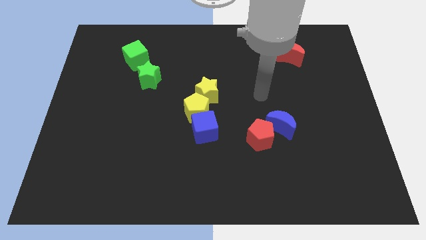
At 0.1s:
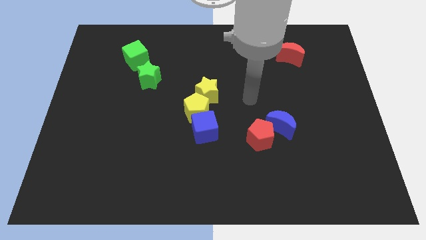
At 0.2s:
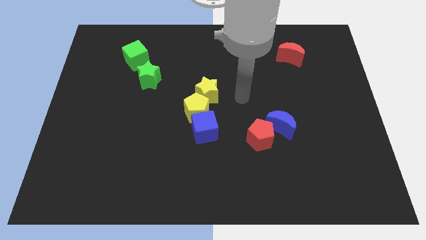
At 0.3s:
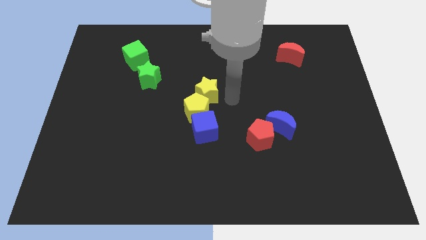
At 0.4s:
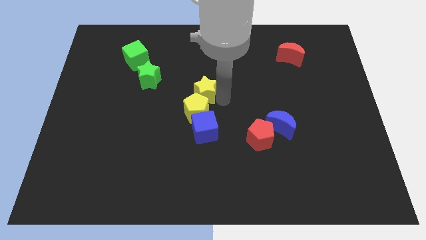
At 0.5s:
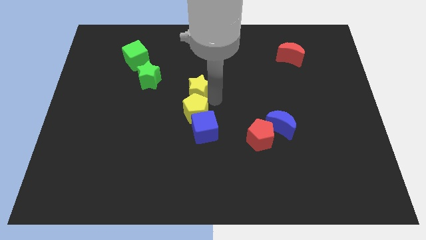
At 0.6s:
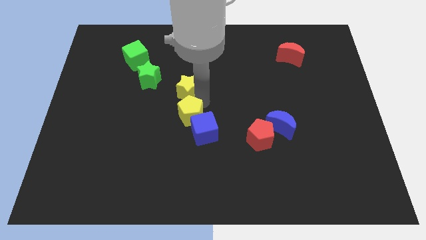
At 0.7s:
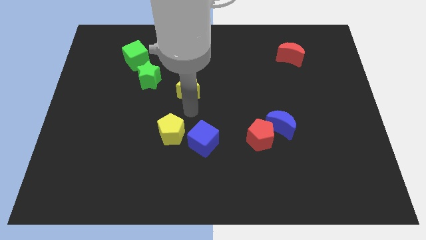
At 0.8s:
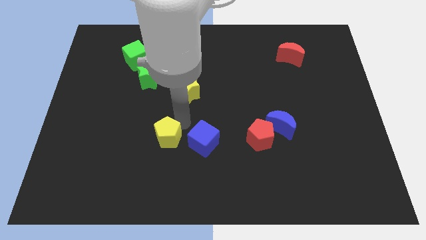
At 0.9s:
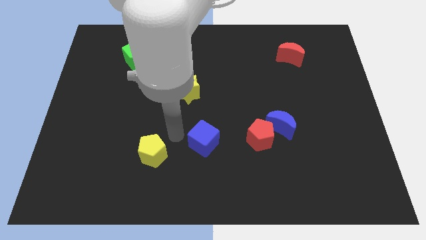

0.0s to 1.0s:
move the blue cube away from the yellow pentagon

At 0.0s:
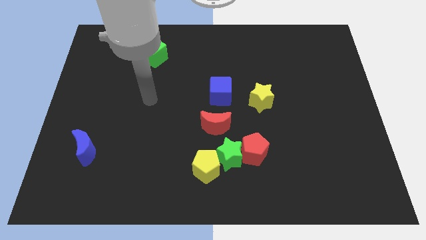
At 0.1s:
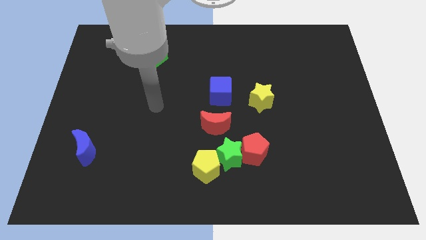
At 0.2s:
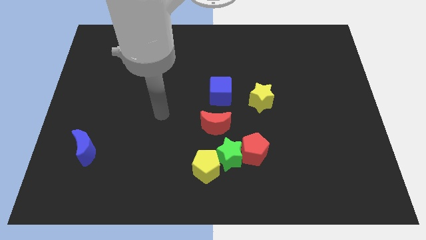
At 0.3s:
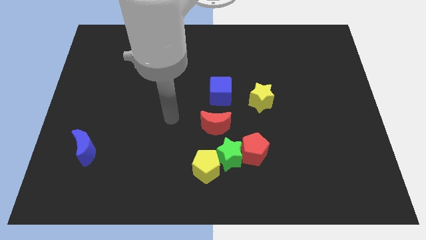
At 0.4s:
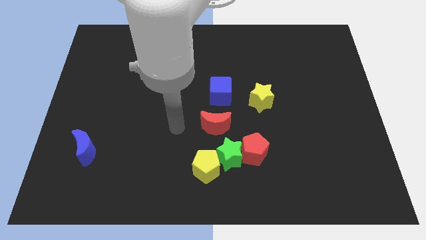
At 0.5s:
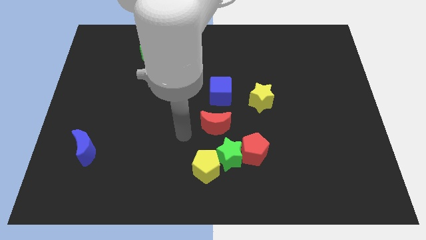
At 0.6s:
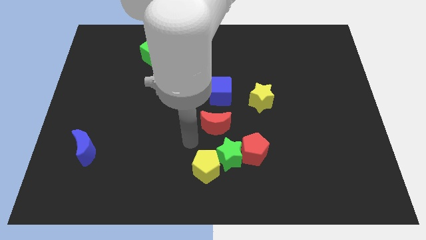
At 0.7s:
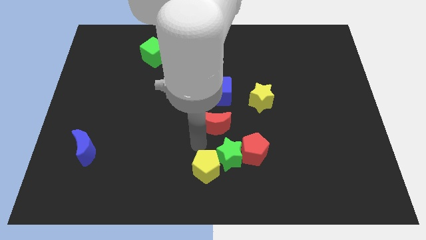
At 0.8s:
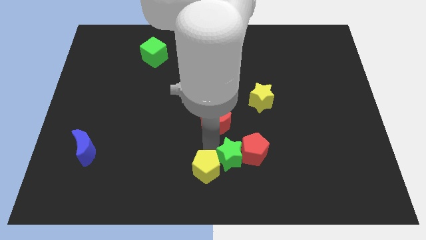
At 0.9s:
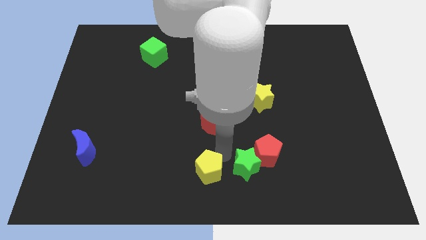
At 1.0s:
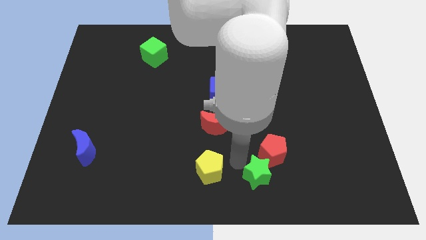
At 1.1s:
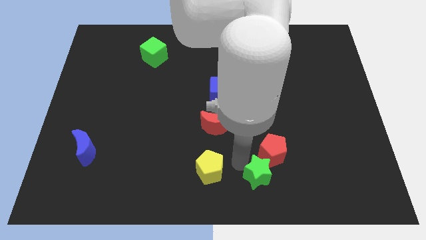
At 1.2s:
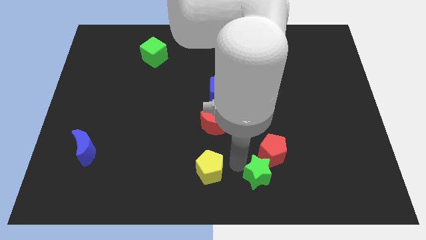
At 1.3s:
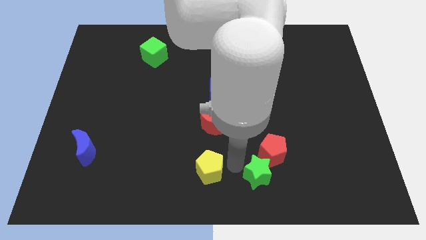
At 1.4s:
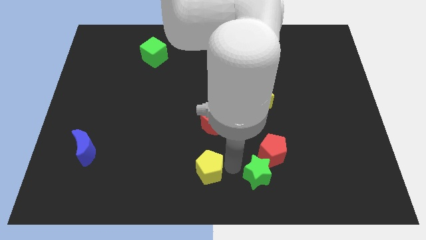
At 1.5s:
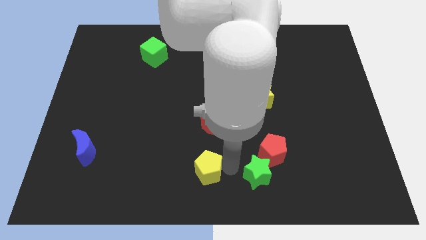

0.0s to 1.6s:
pull the yellow pentagon apart from the green star

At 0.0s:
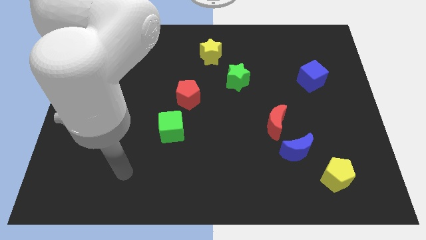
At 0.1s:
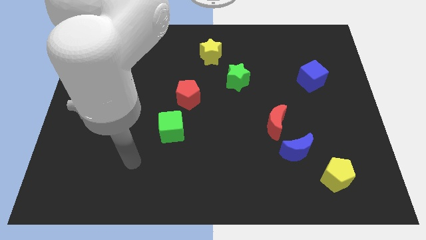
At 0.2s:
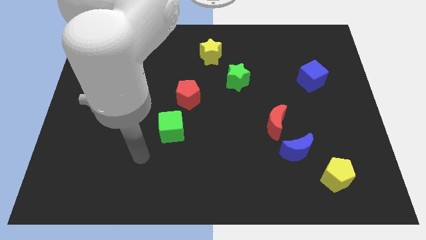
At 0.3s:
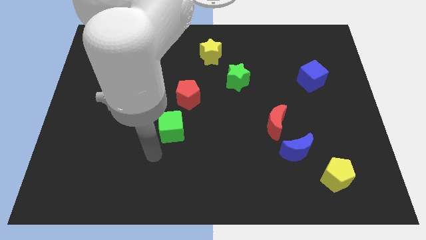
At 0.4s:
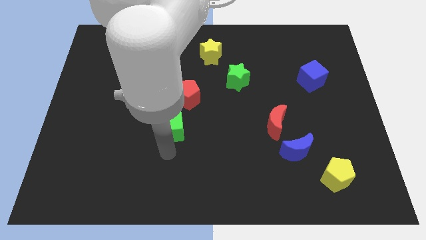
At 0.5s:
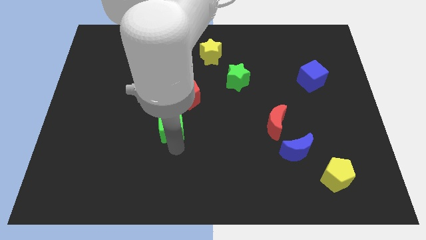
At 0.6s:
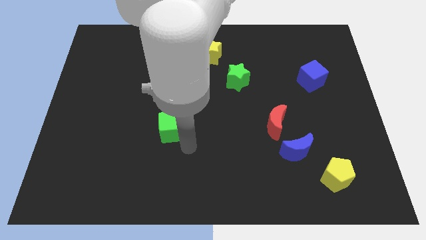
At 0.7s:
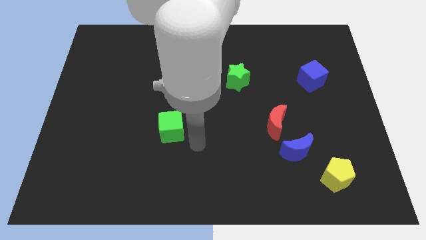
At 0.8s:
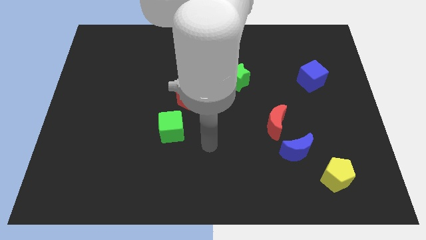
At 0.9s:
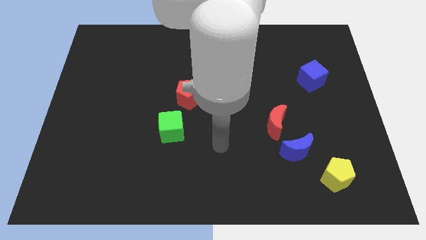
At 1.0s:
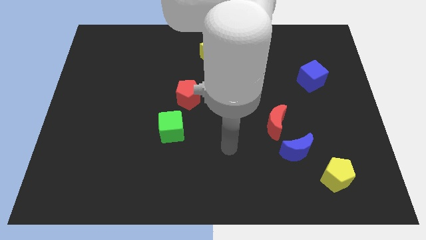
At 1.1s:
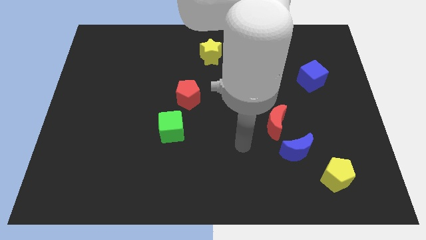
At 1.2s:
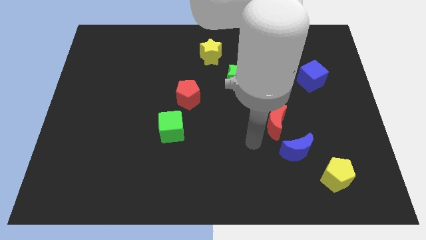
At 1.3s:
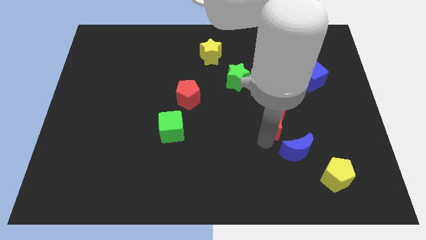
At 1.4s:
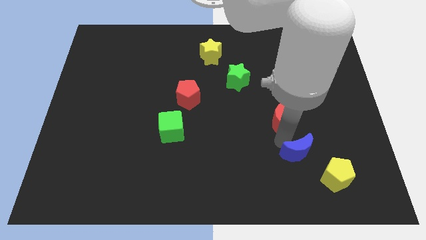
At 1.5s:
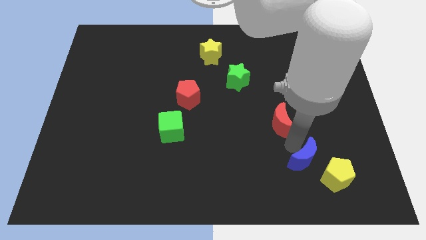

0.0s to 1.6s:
separate the red moon from the blue moon

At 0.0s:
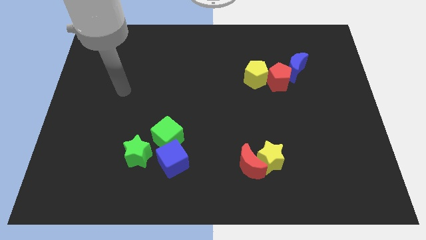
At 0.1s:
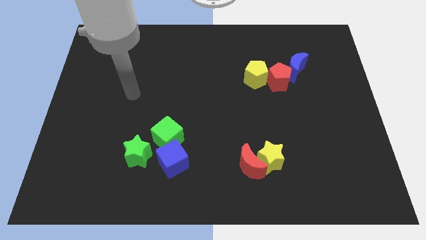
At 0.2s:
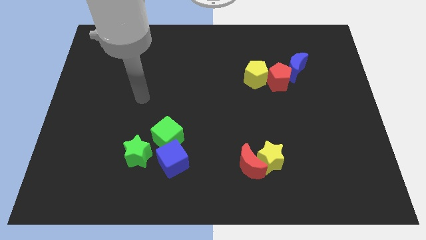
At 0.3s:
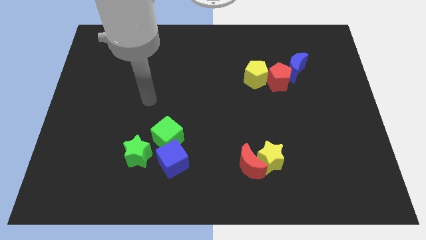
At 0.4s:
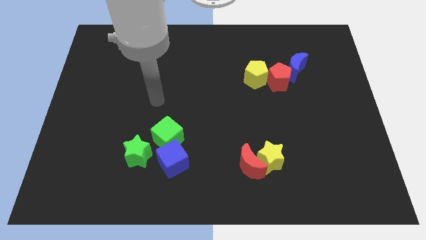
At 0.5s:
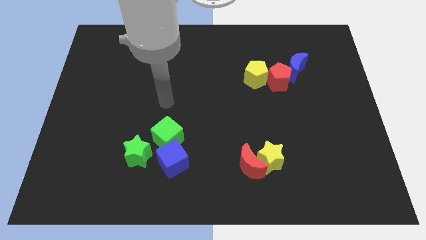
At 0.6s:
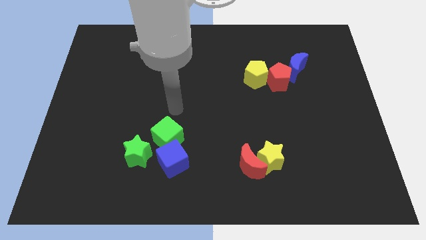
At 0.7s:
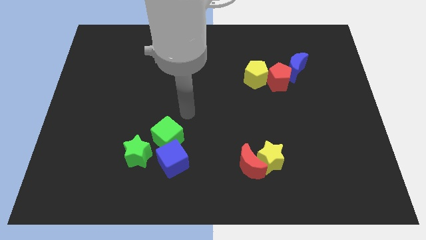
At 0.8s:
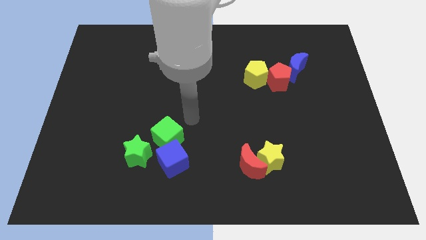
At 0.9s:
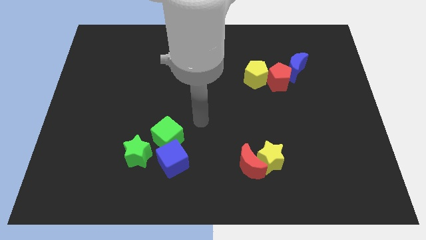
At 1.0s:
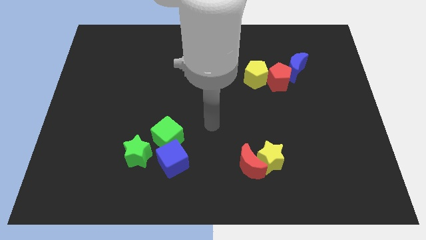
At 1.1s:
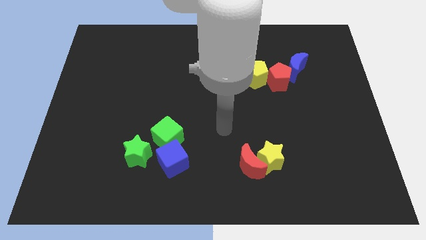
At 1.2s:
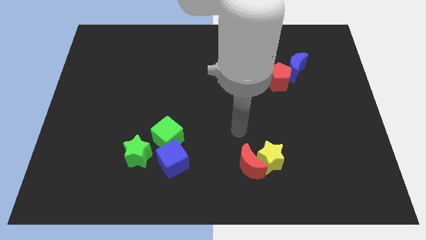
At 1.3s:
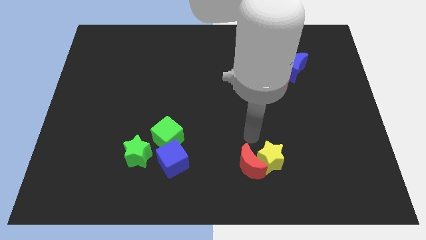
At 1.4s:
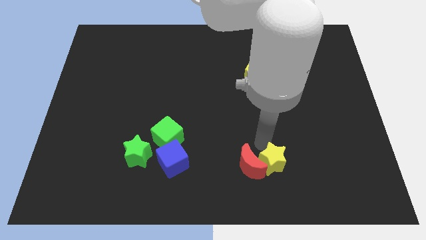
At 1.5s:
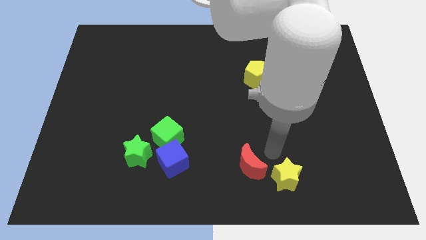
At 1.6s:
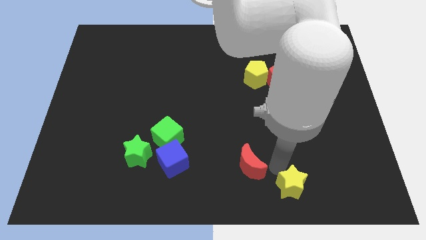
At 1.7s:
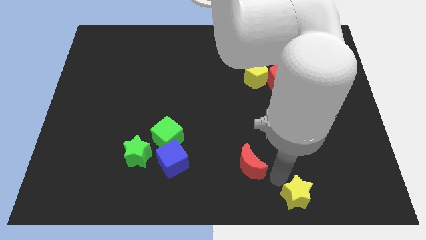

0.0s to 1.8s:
pull the red moon apart from the yellow star

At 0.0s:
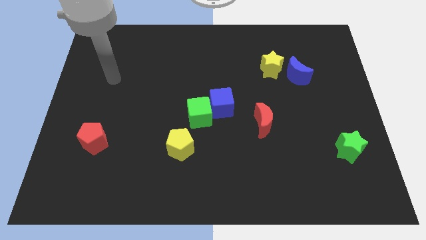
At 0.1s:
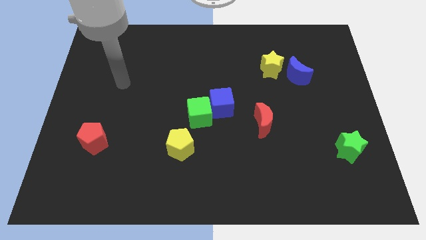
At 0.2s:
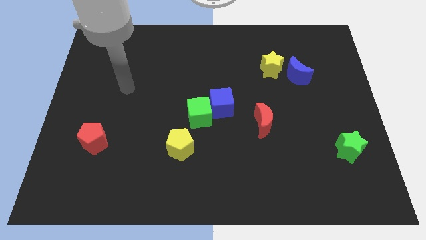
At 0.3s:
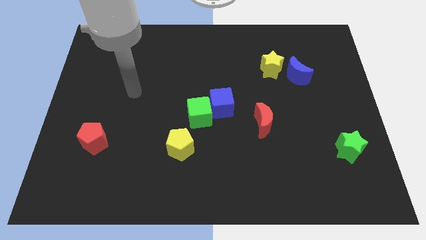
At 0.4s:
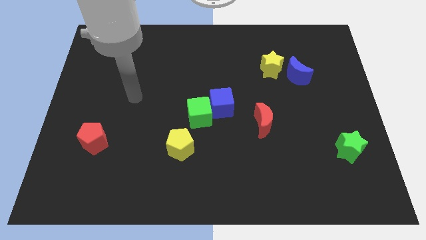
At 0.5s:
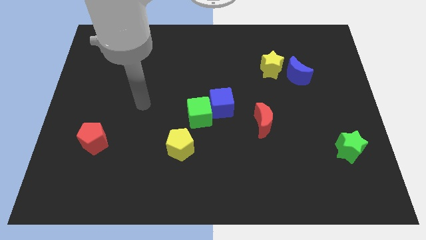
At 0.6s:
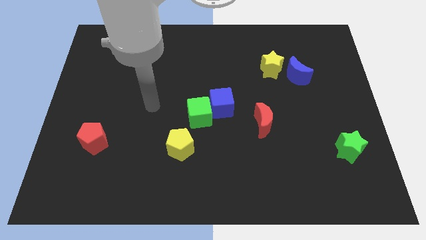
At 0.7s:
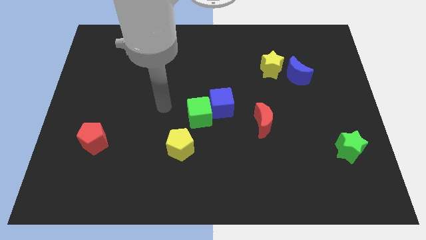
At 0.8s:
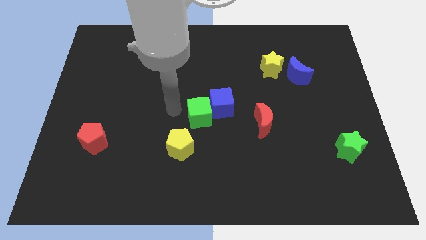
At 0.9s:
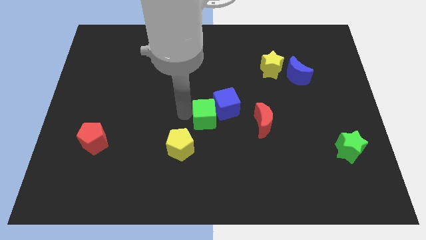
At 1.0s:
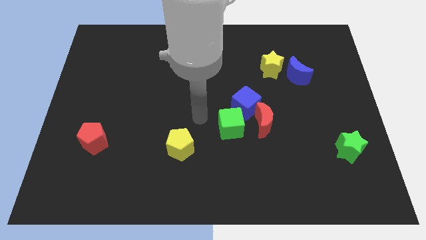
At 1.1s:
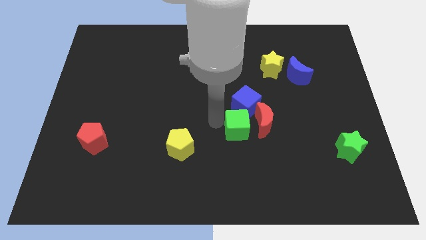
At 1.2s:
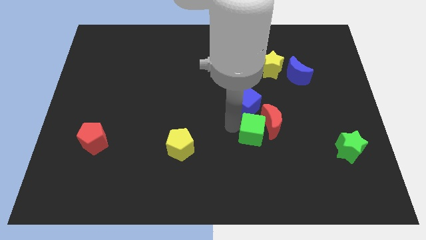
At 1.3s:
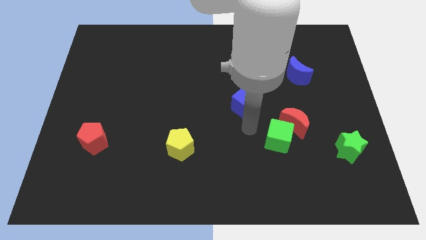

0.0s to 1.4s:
pull the blue cube apart from the green cube

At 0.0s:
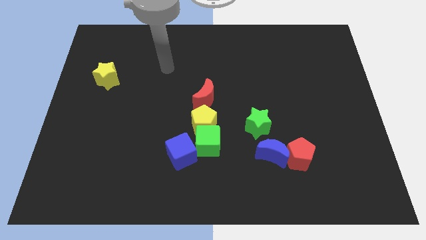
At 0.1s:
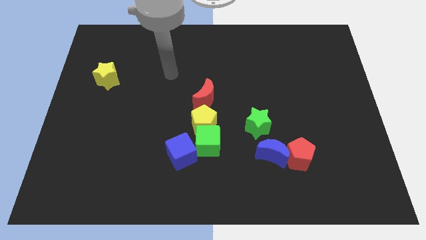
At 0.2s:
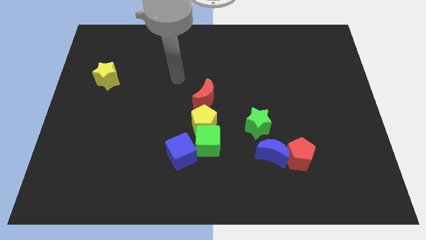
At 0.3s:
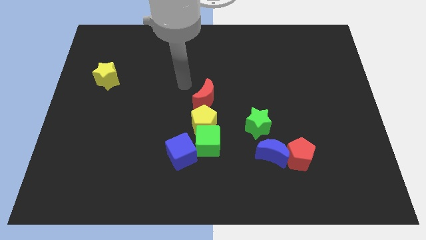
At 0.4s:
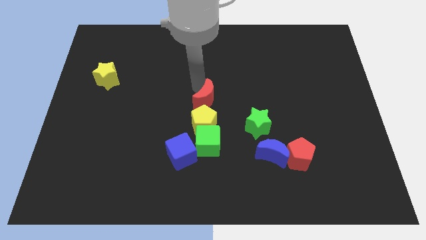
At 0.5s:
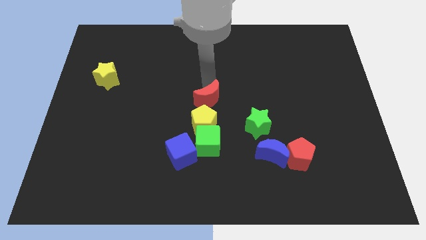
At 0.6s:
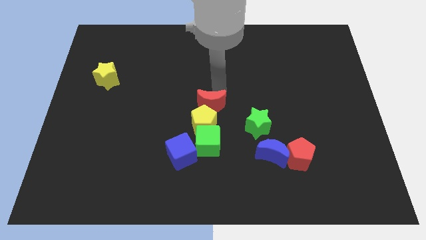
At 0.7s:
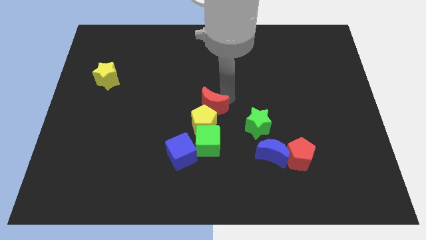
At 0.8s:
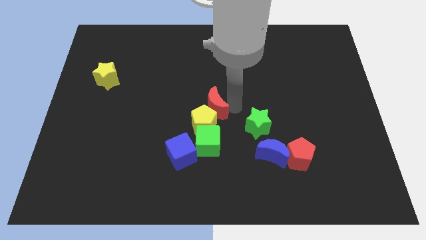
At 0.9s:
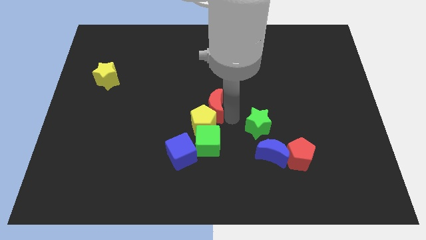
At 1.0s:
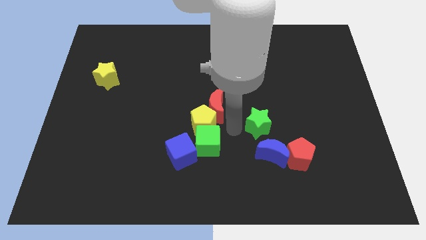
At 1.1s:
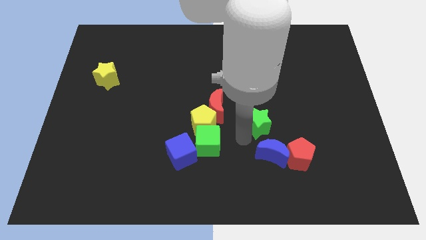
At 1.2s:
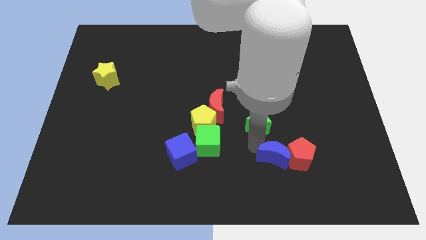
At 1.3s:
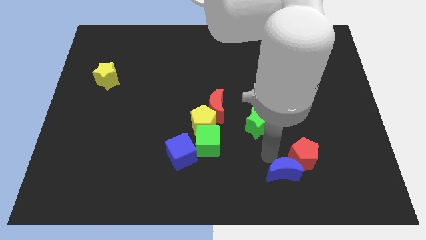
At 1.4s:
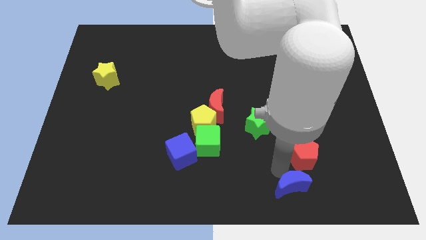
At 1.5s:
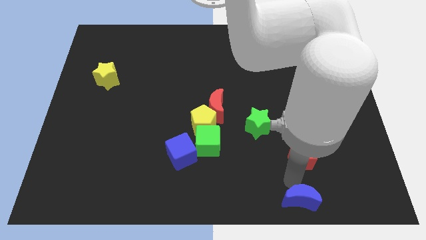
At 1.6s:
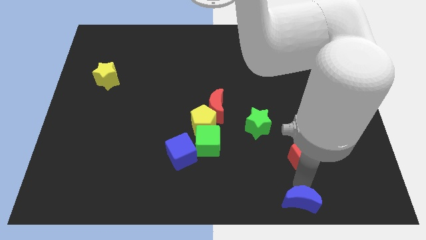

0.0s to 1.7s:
separate the red pentagon from the blue moon

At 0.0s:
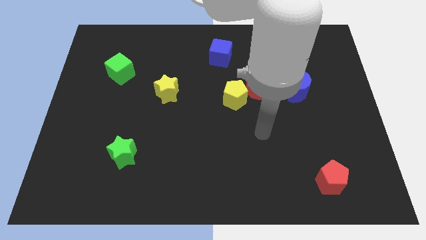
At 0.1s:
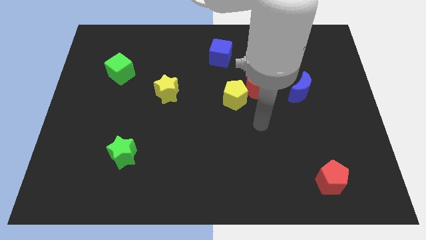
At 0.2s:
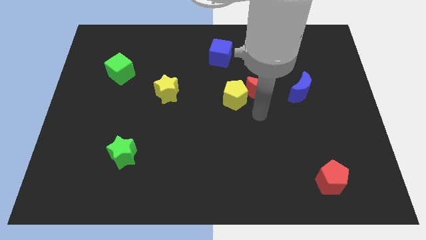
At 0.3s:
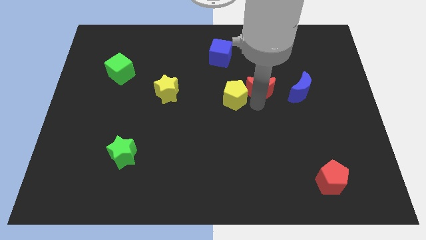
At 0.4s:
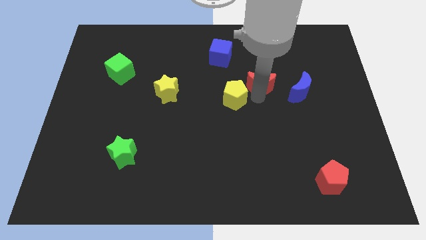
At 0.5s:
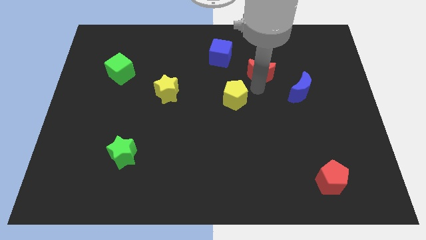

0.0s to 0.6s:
separate the yellow pentagon from the red moon
